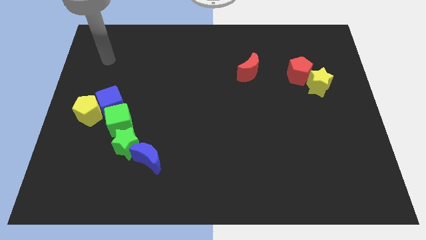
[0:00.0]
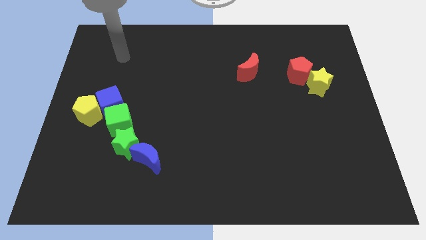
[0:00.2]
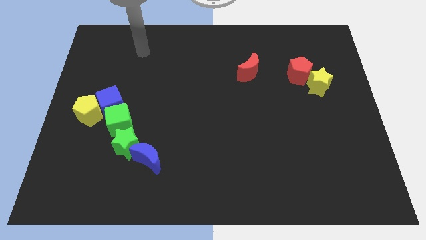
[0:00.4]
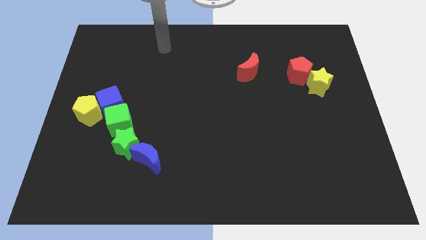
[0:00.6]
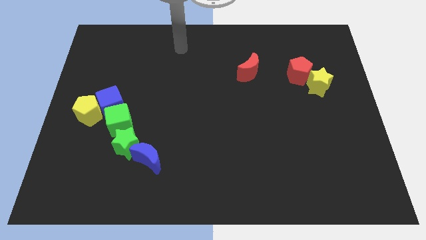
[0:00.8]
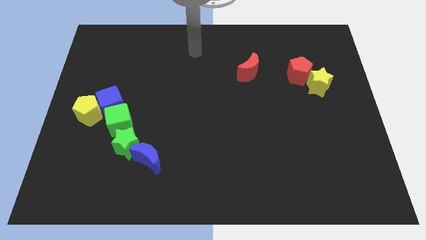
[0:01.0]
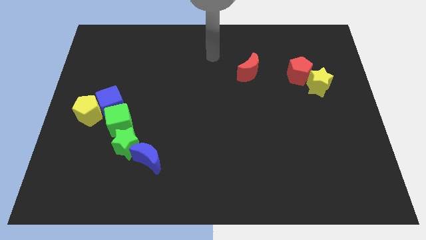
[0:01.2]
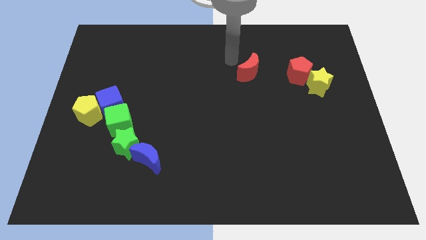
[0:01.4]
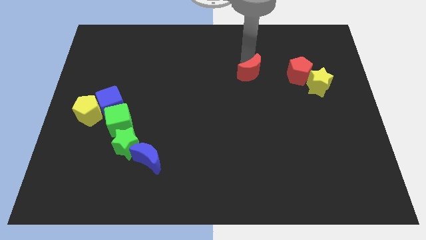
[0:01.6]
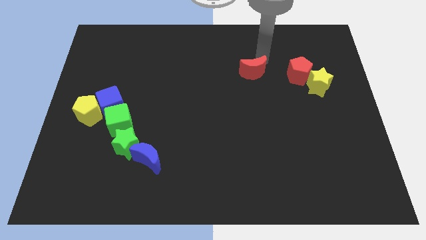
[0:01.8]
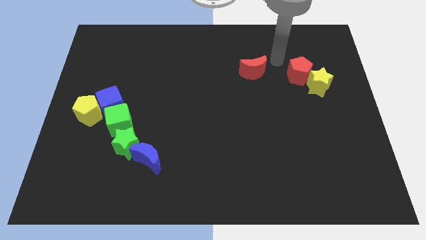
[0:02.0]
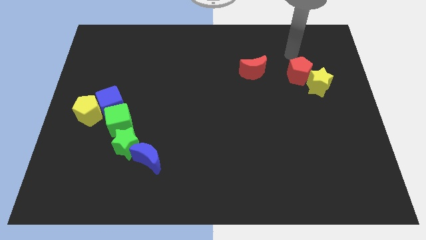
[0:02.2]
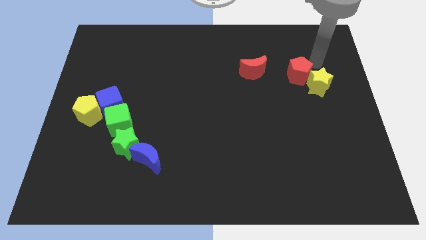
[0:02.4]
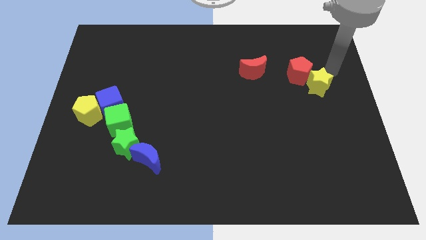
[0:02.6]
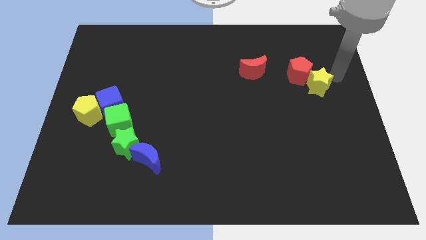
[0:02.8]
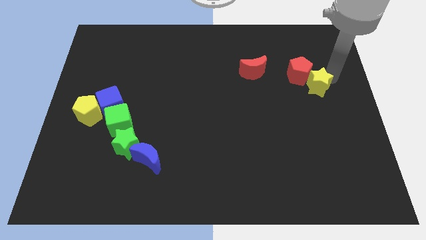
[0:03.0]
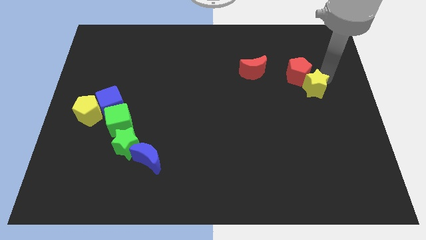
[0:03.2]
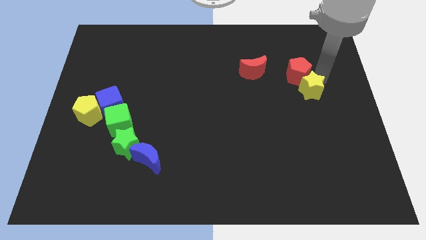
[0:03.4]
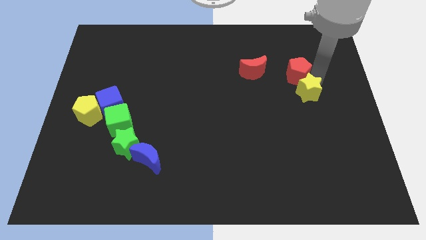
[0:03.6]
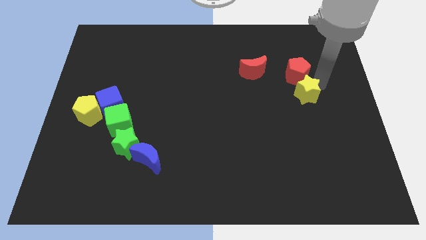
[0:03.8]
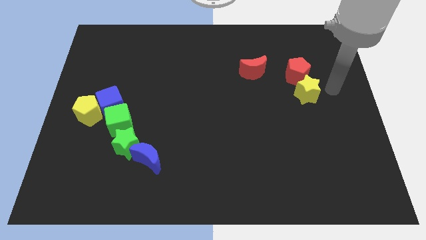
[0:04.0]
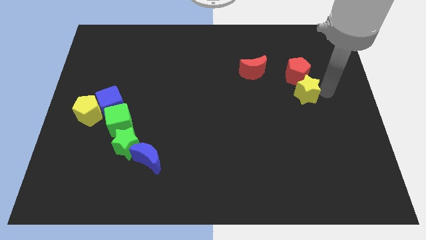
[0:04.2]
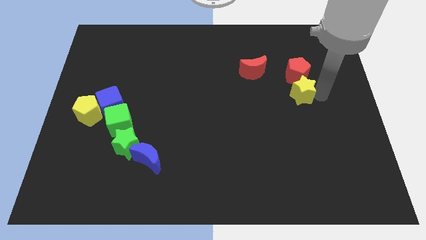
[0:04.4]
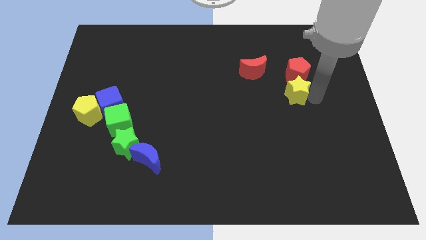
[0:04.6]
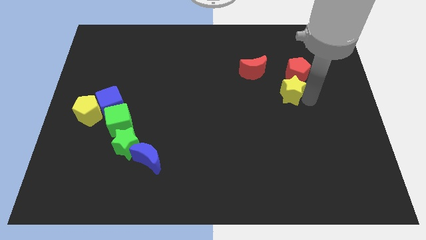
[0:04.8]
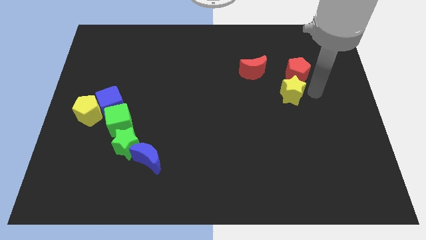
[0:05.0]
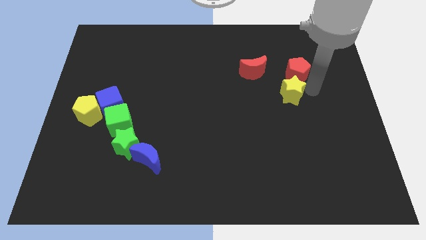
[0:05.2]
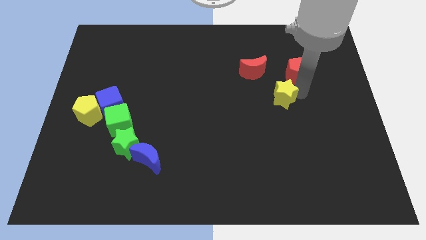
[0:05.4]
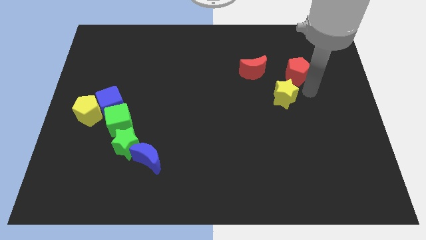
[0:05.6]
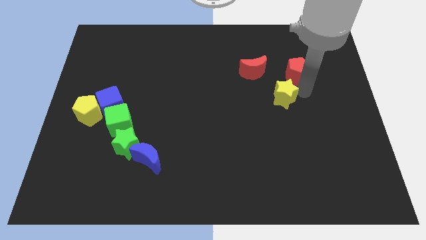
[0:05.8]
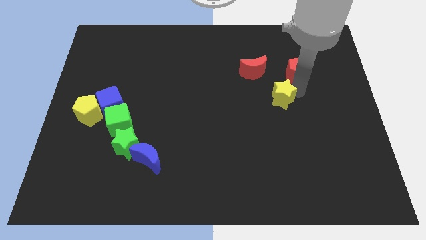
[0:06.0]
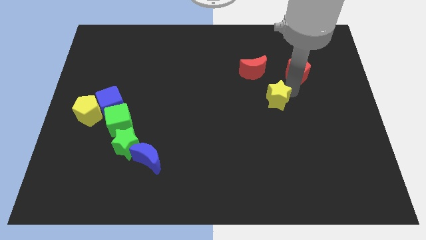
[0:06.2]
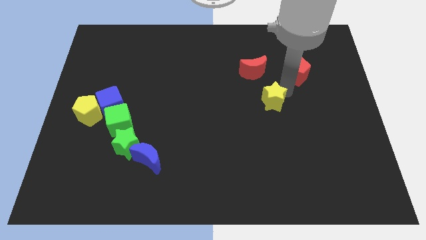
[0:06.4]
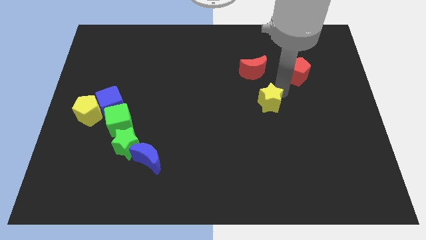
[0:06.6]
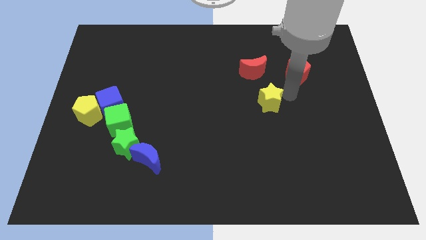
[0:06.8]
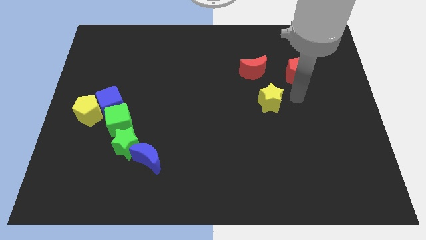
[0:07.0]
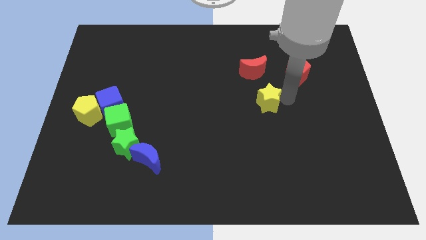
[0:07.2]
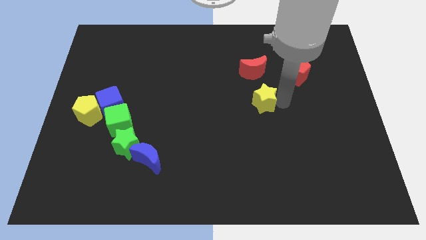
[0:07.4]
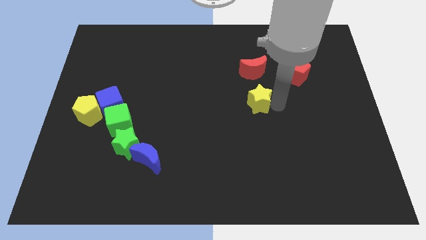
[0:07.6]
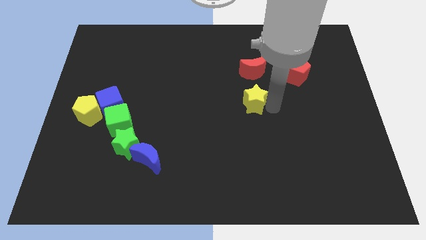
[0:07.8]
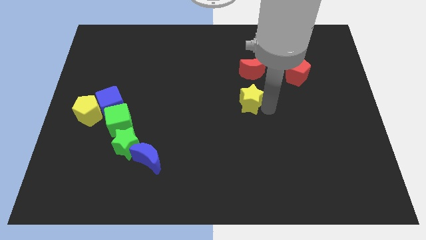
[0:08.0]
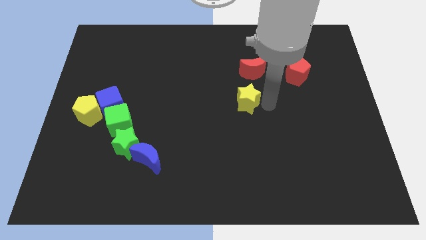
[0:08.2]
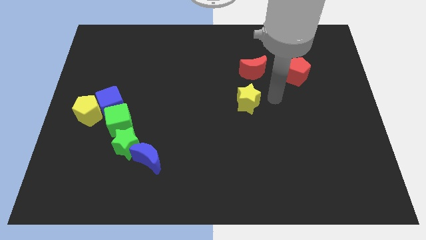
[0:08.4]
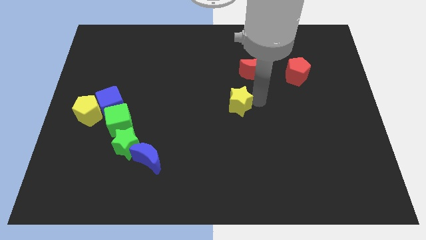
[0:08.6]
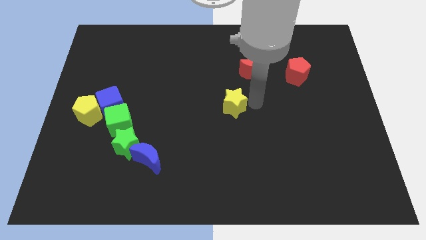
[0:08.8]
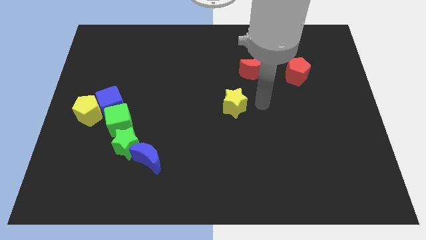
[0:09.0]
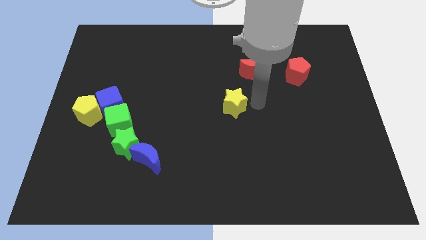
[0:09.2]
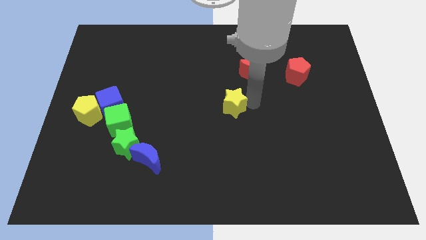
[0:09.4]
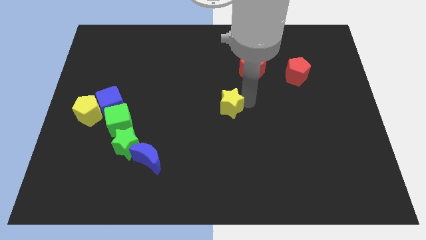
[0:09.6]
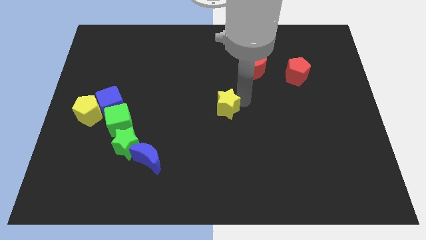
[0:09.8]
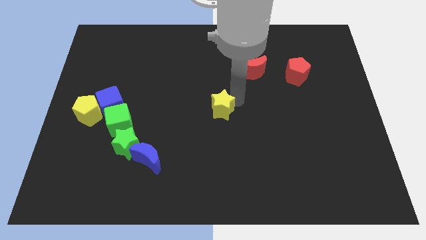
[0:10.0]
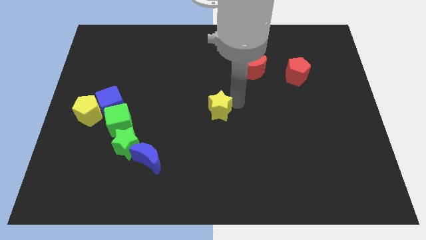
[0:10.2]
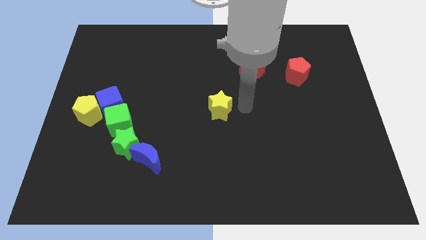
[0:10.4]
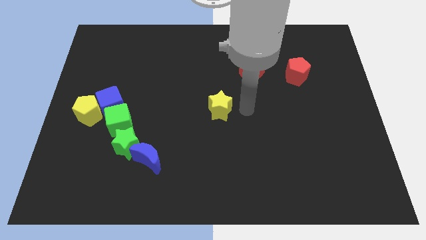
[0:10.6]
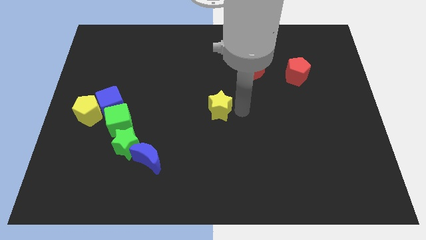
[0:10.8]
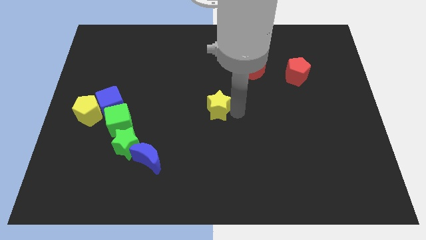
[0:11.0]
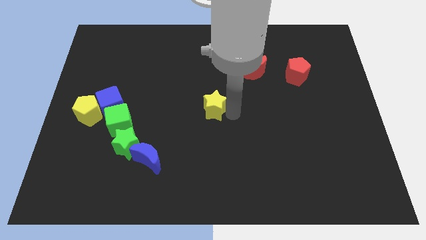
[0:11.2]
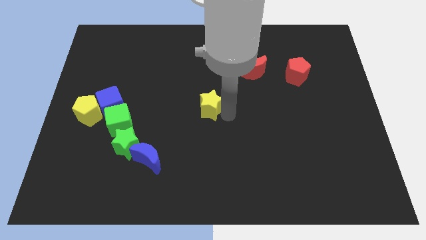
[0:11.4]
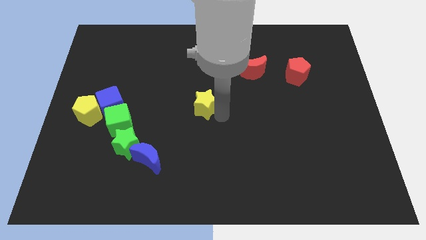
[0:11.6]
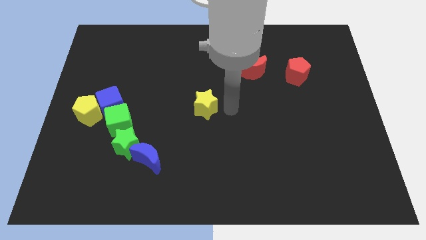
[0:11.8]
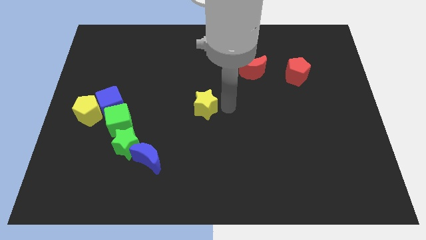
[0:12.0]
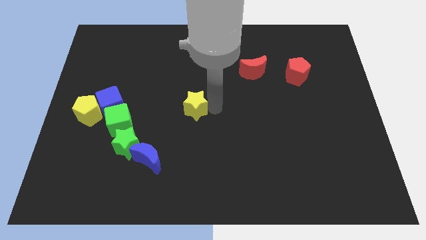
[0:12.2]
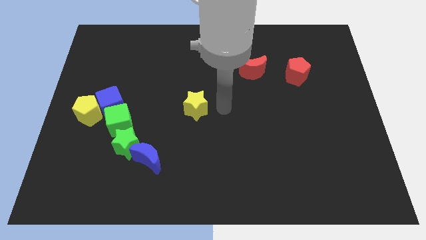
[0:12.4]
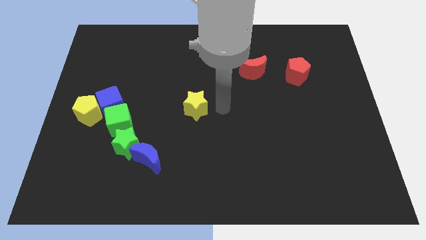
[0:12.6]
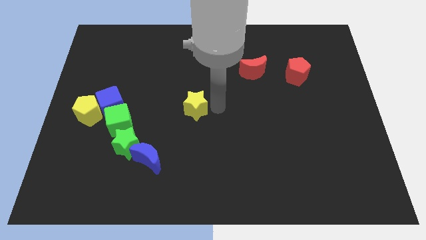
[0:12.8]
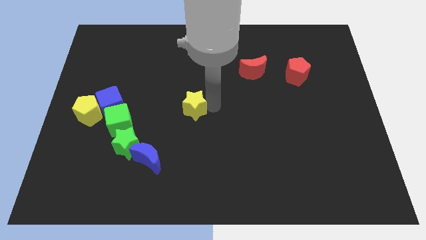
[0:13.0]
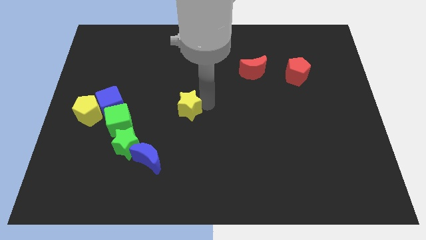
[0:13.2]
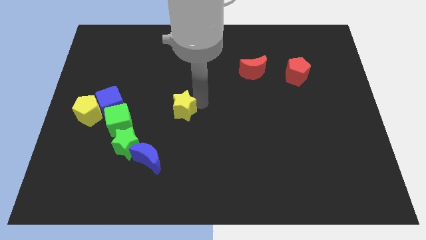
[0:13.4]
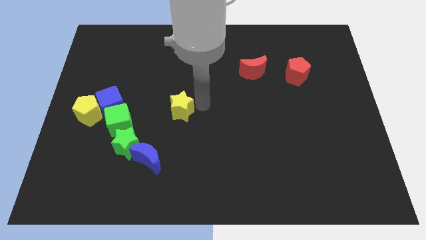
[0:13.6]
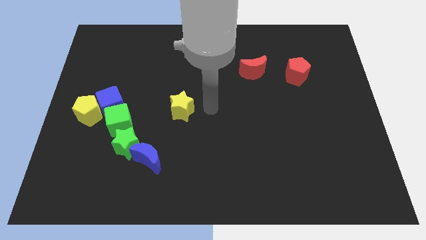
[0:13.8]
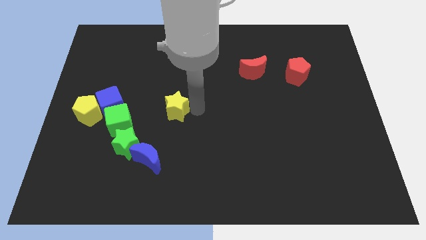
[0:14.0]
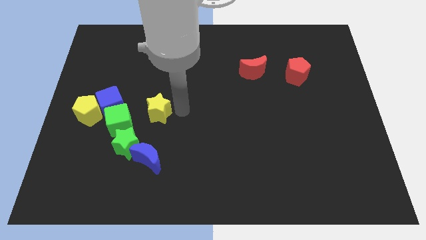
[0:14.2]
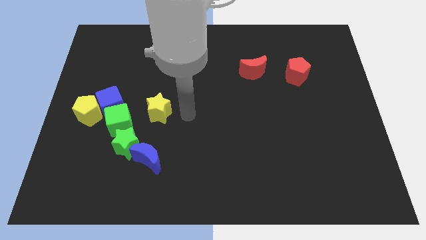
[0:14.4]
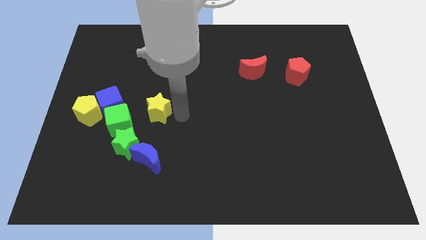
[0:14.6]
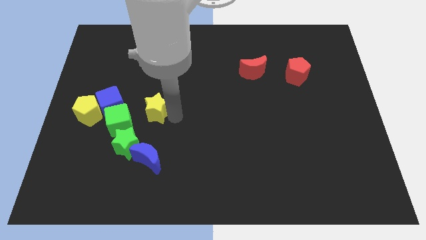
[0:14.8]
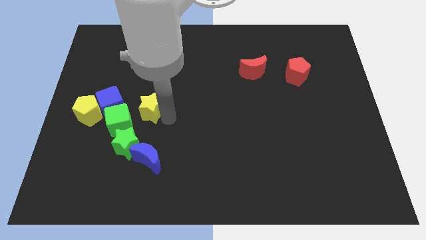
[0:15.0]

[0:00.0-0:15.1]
slide the yellow star above the green star
